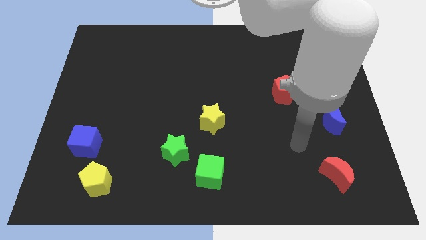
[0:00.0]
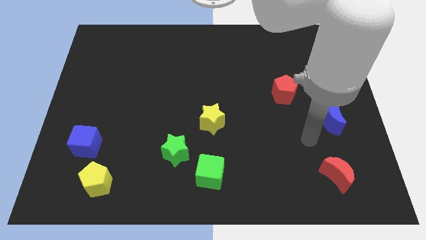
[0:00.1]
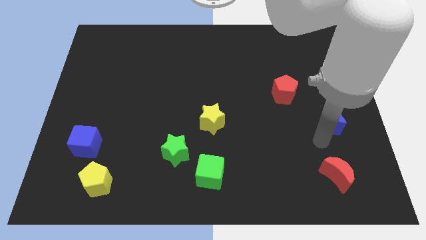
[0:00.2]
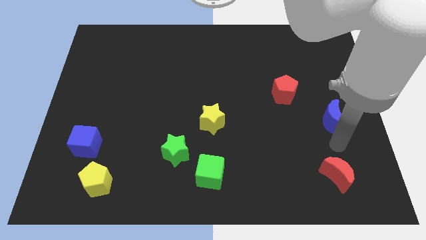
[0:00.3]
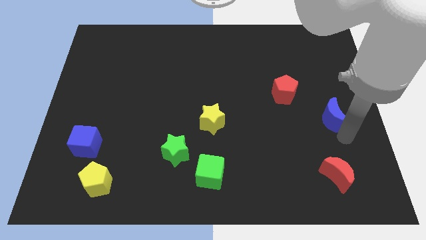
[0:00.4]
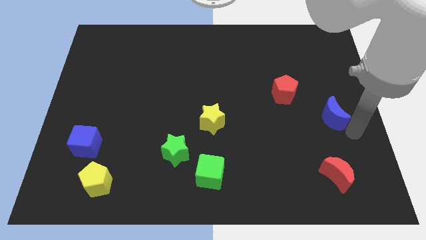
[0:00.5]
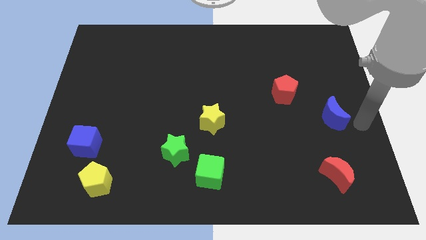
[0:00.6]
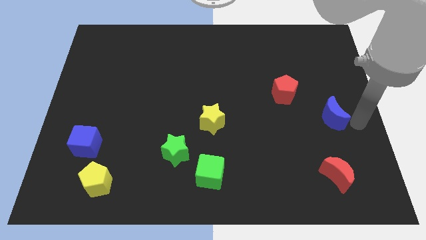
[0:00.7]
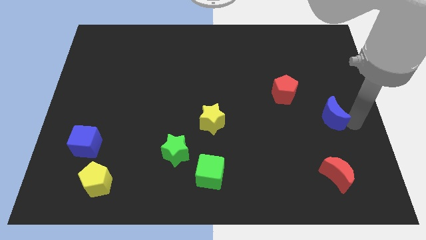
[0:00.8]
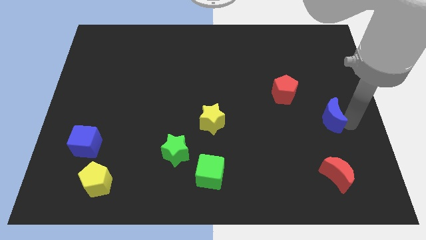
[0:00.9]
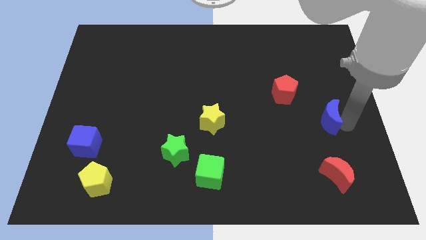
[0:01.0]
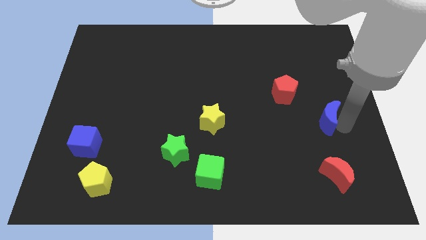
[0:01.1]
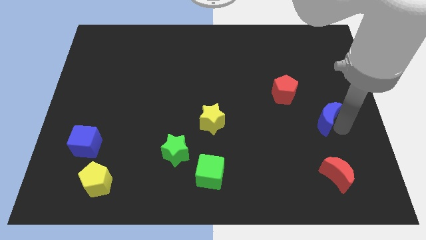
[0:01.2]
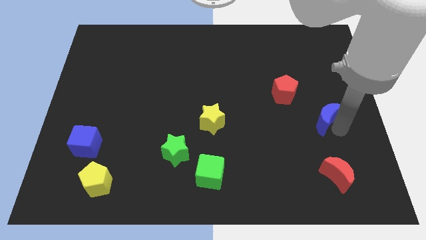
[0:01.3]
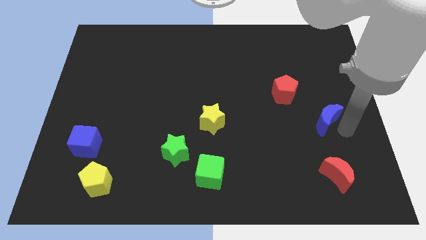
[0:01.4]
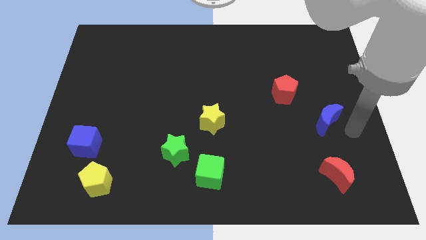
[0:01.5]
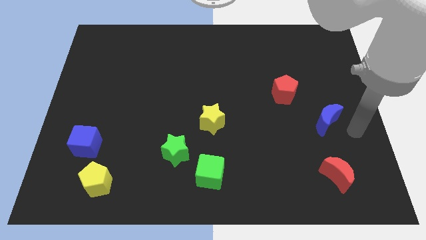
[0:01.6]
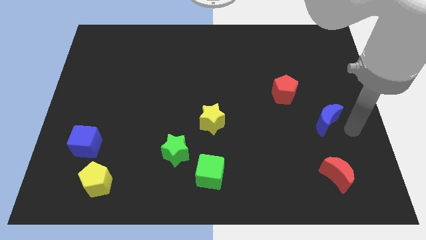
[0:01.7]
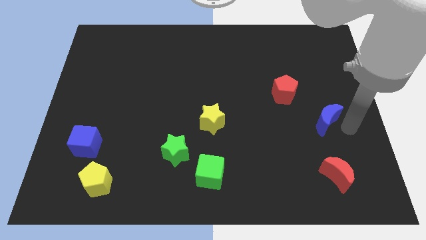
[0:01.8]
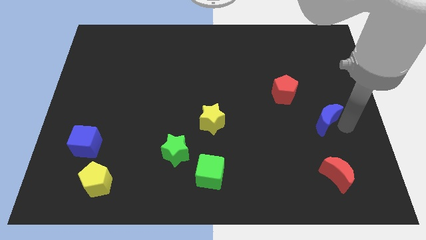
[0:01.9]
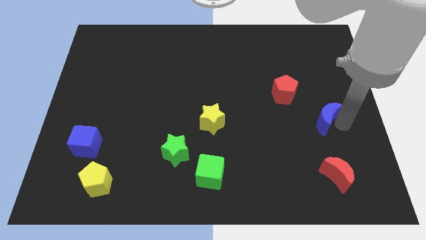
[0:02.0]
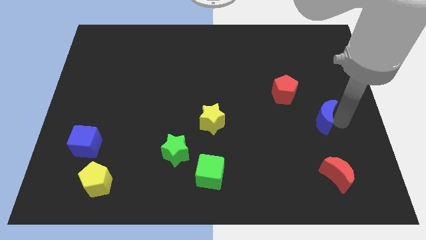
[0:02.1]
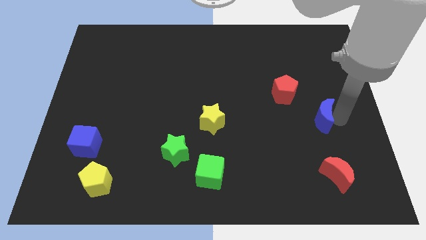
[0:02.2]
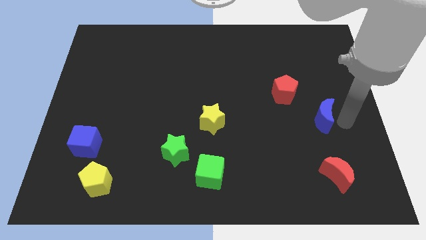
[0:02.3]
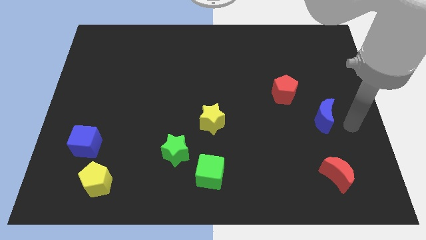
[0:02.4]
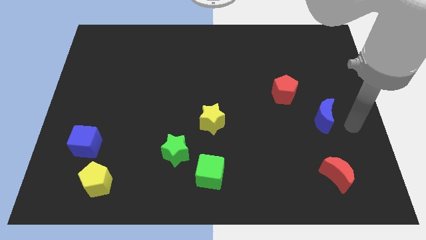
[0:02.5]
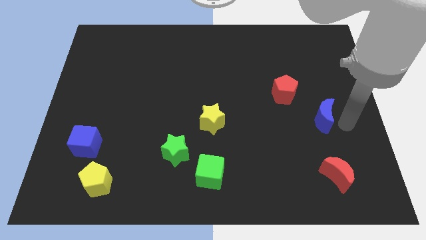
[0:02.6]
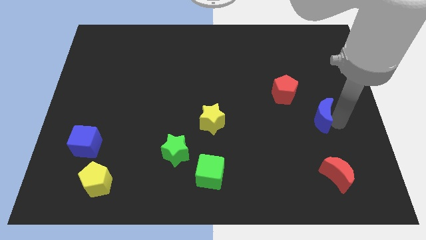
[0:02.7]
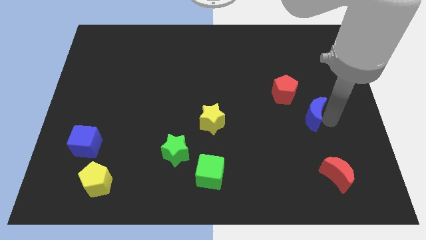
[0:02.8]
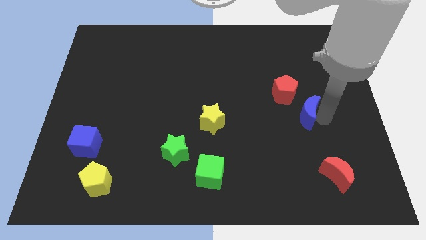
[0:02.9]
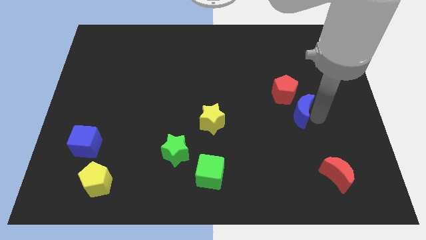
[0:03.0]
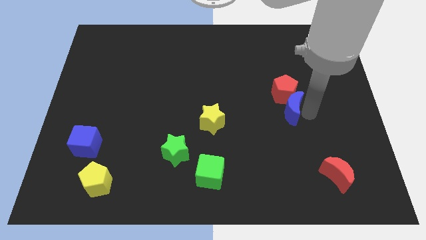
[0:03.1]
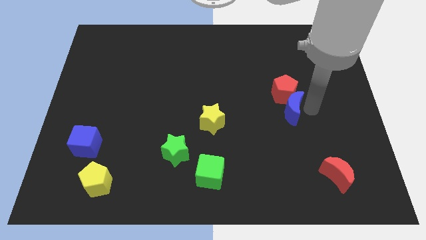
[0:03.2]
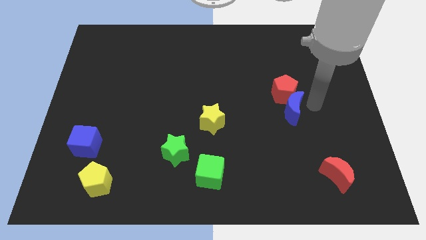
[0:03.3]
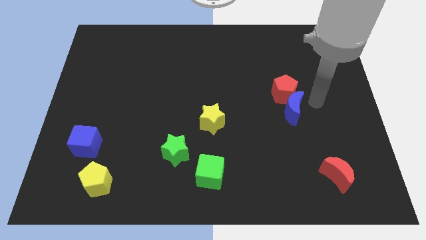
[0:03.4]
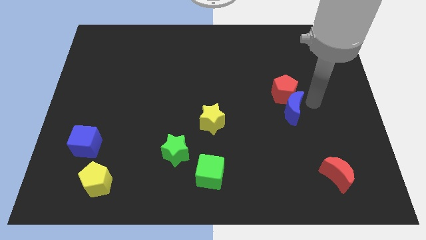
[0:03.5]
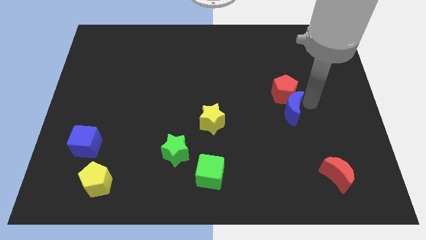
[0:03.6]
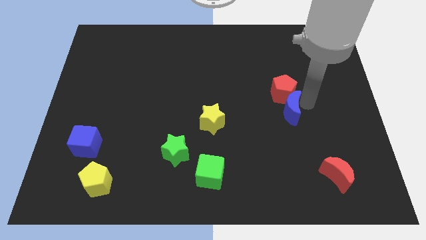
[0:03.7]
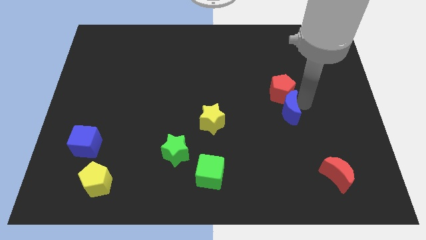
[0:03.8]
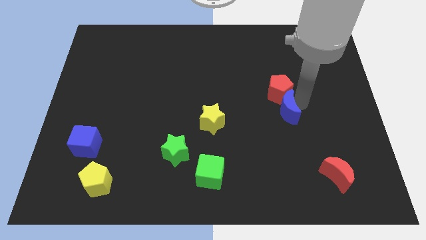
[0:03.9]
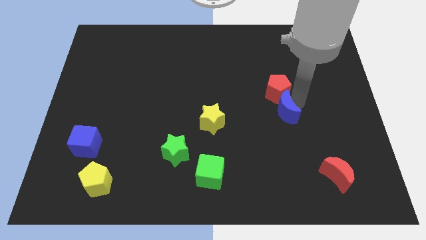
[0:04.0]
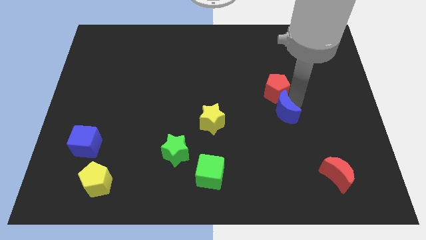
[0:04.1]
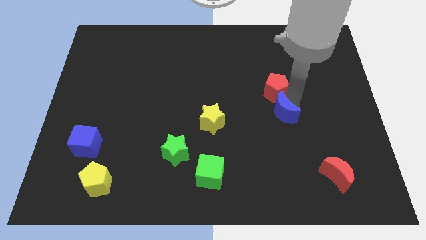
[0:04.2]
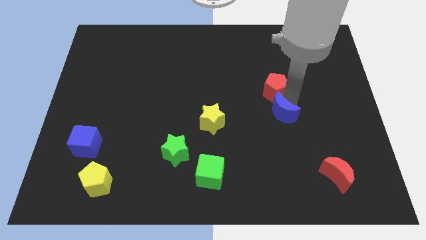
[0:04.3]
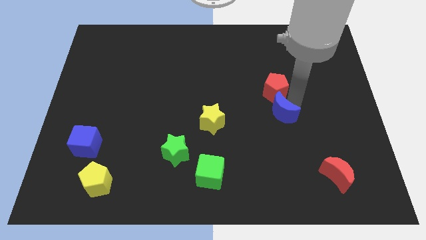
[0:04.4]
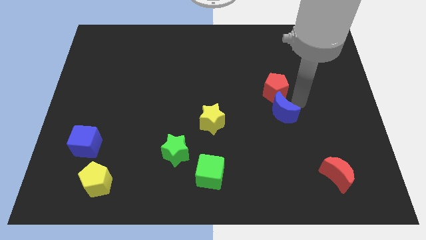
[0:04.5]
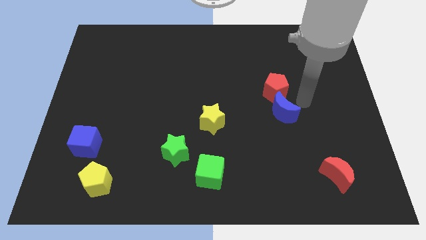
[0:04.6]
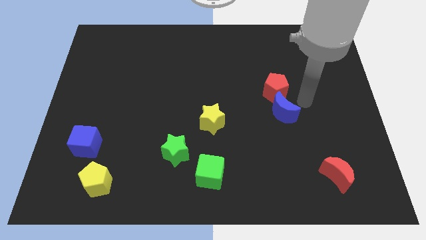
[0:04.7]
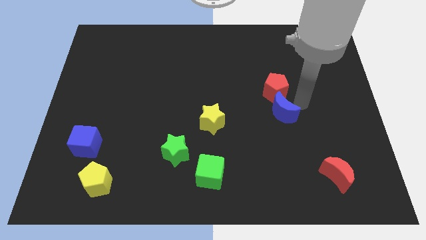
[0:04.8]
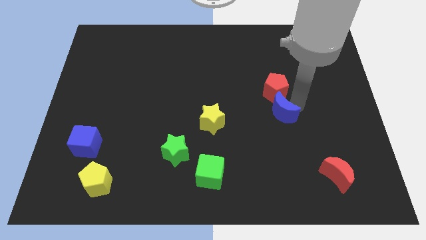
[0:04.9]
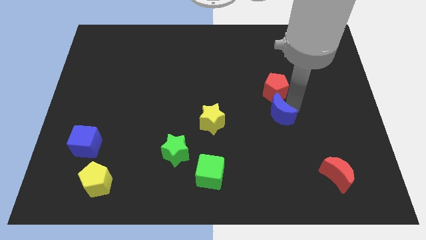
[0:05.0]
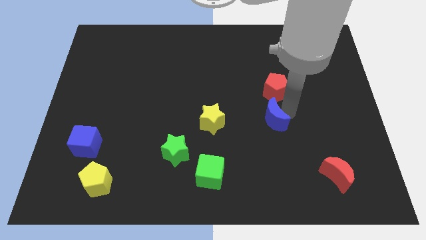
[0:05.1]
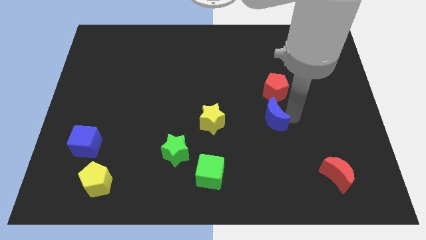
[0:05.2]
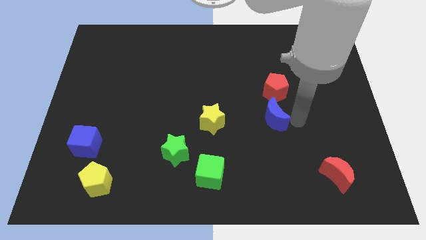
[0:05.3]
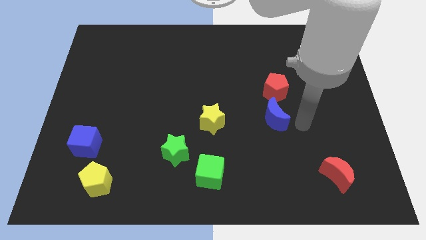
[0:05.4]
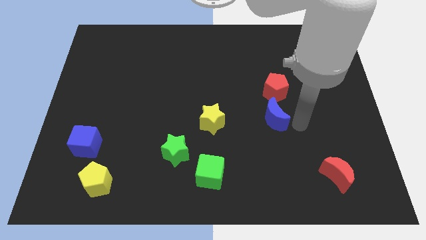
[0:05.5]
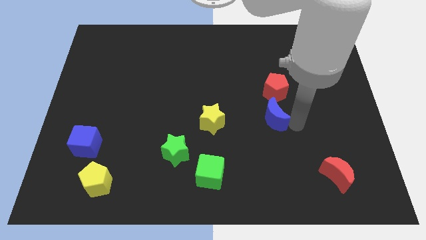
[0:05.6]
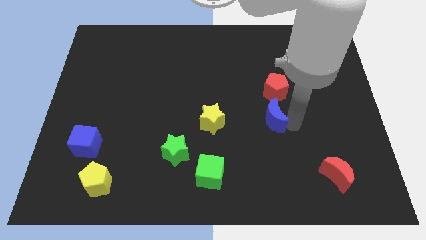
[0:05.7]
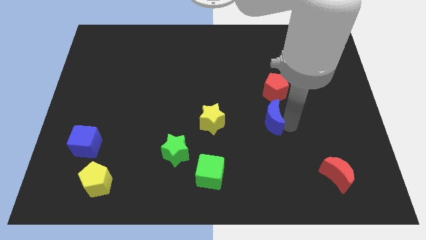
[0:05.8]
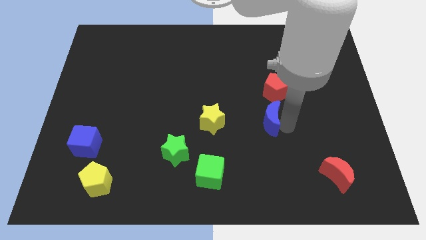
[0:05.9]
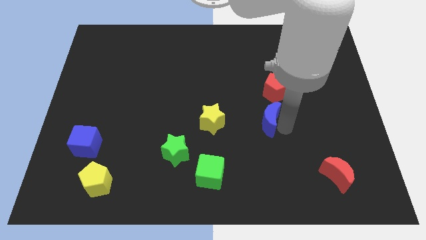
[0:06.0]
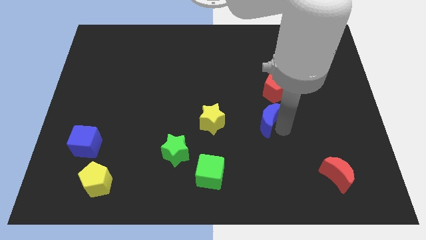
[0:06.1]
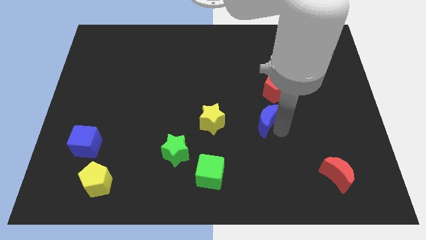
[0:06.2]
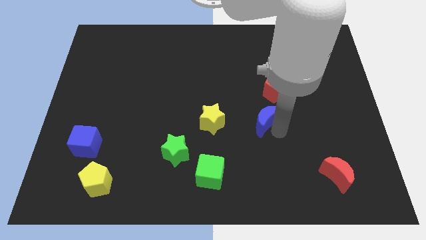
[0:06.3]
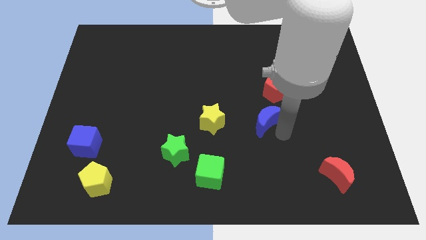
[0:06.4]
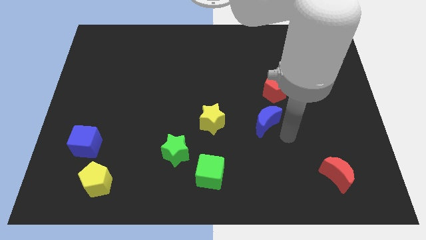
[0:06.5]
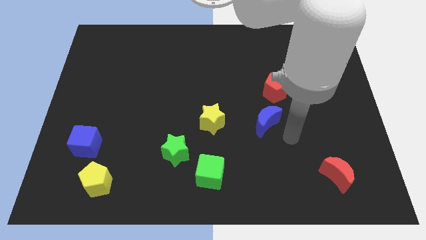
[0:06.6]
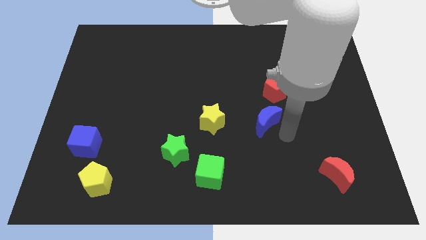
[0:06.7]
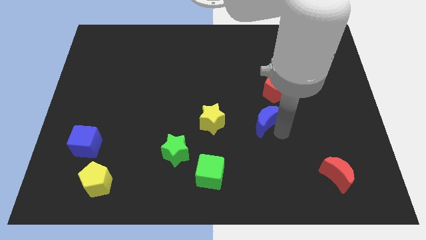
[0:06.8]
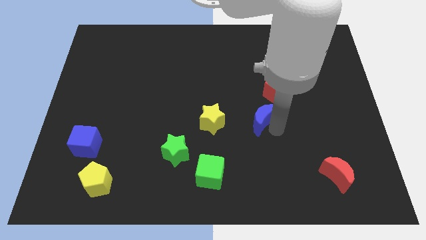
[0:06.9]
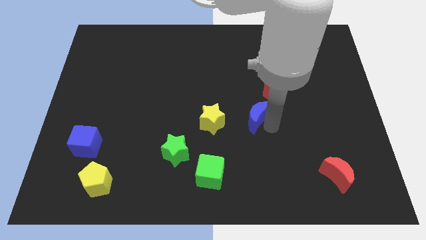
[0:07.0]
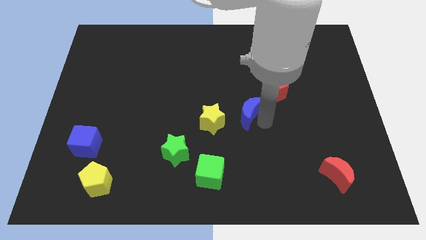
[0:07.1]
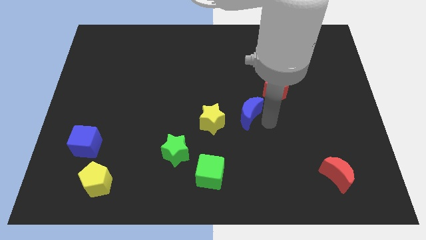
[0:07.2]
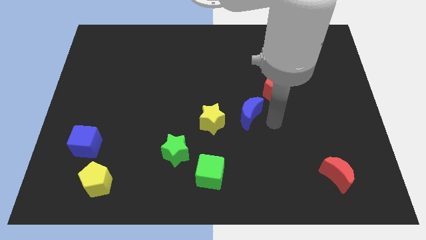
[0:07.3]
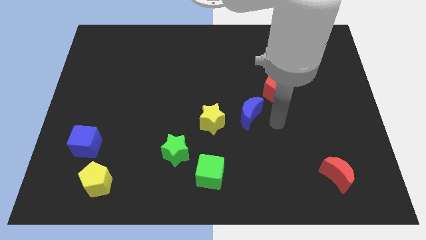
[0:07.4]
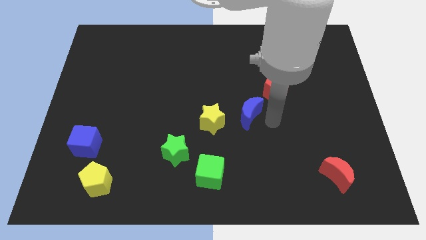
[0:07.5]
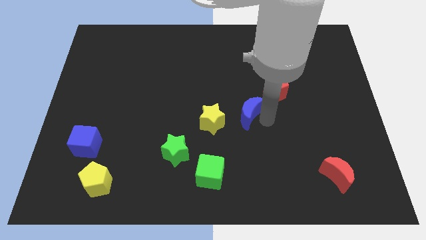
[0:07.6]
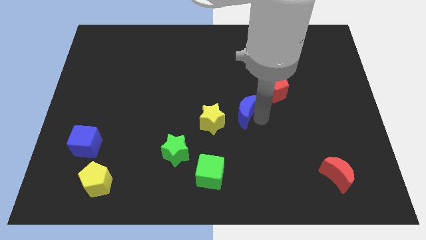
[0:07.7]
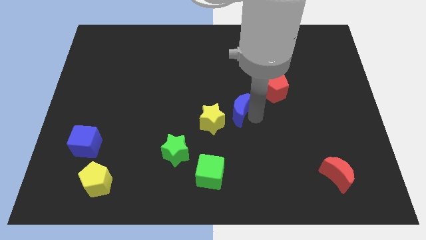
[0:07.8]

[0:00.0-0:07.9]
move the blue moon left

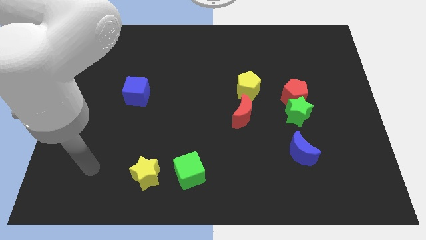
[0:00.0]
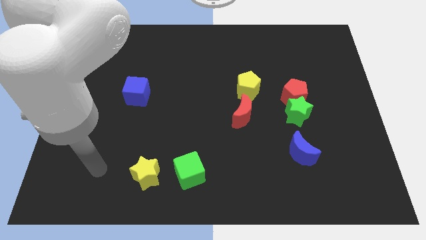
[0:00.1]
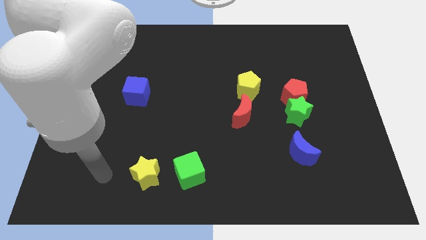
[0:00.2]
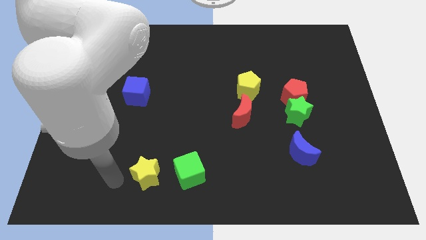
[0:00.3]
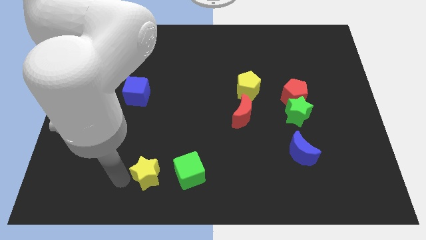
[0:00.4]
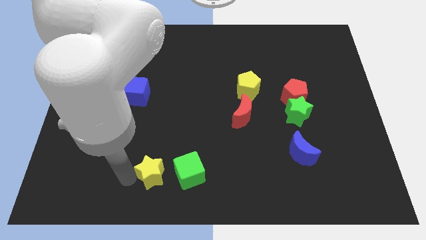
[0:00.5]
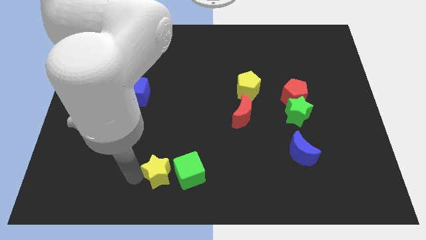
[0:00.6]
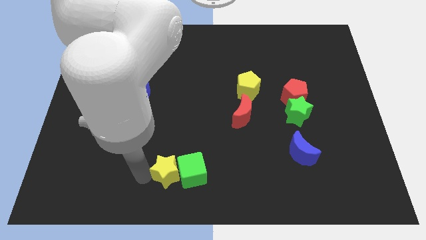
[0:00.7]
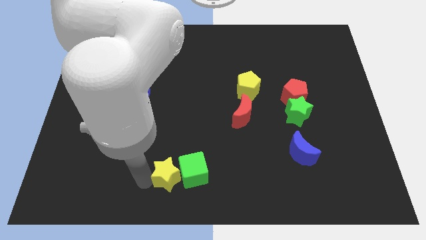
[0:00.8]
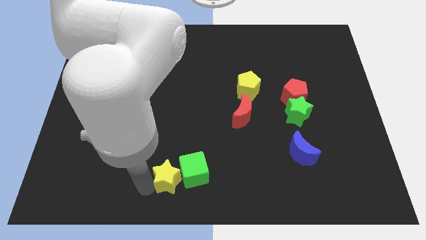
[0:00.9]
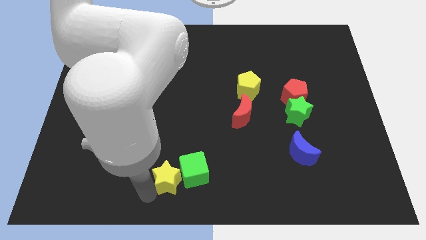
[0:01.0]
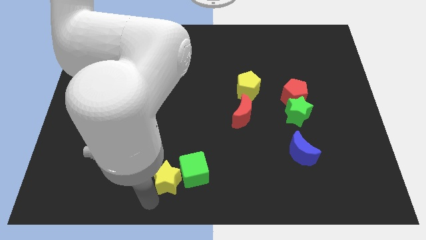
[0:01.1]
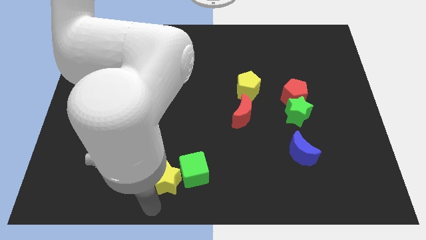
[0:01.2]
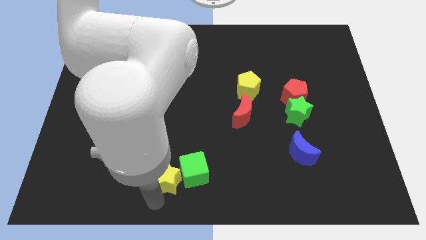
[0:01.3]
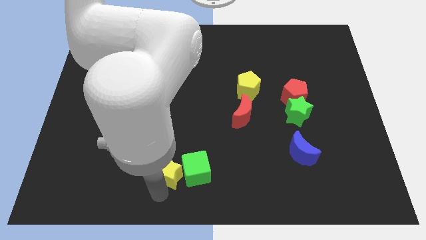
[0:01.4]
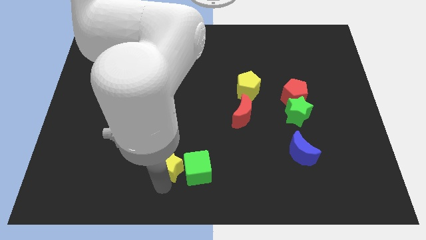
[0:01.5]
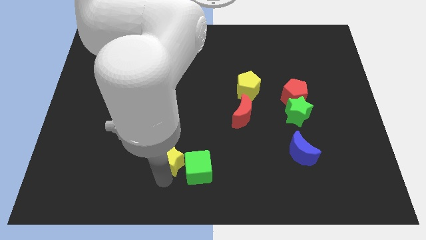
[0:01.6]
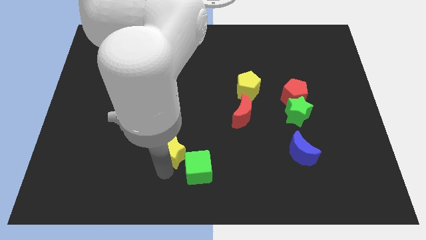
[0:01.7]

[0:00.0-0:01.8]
push the yellow star up and right a bit
